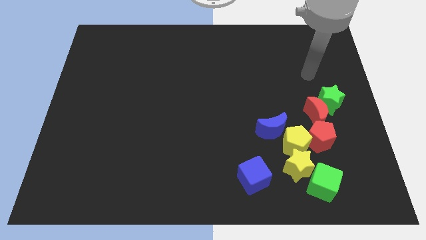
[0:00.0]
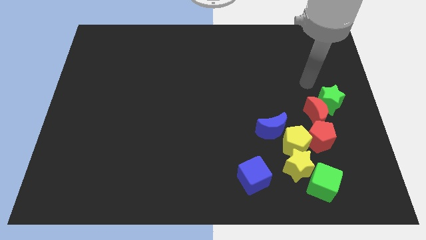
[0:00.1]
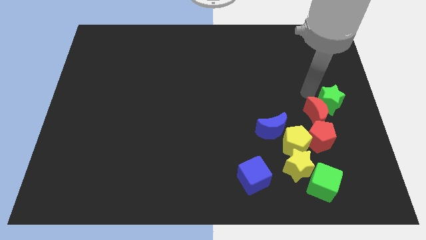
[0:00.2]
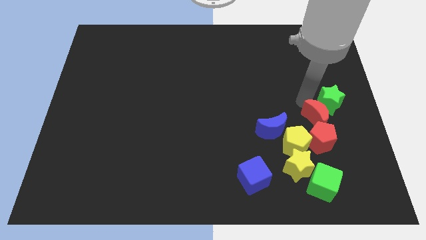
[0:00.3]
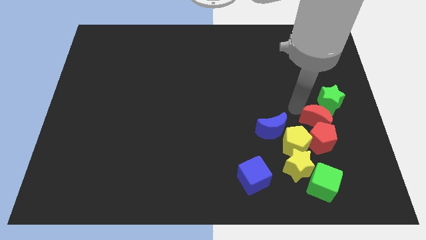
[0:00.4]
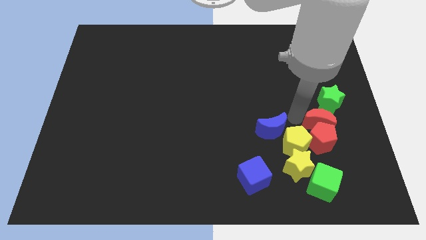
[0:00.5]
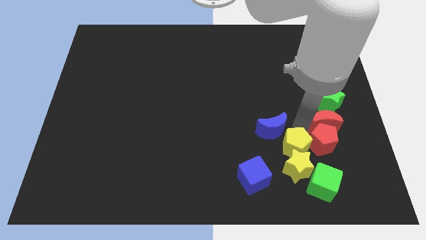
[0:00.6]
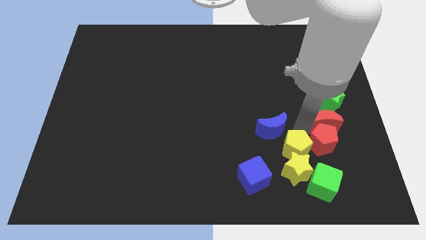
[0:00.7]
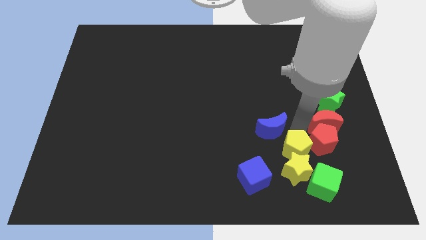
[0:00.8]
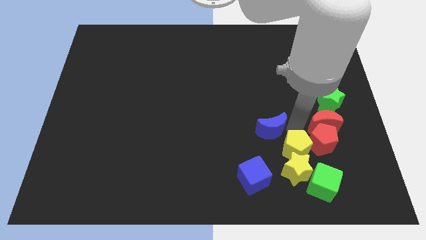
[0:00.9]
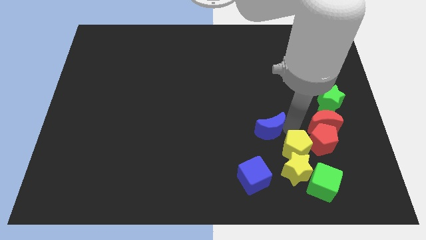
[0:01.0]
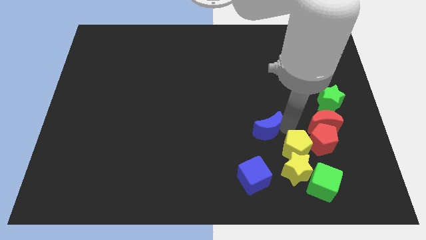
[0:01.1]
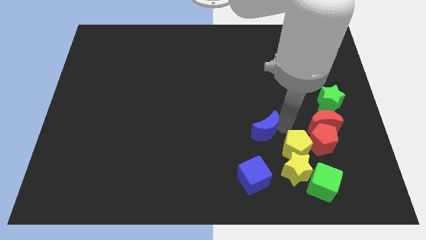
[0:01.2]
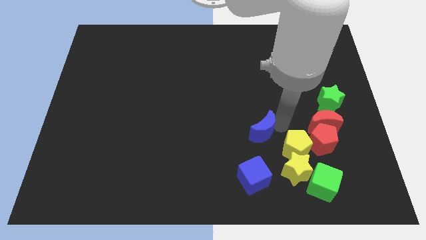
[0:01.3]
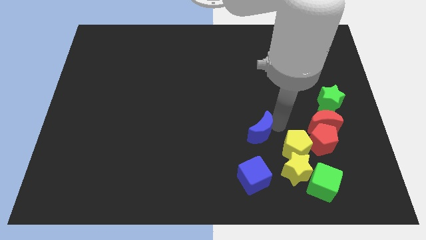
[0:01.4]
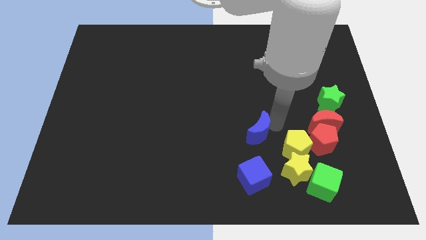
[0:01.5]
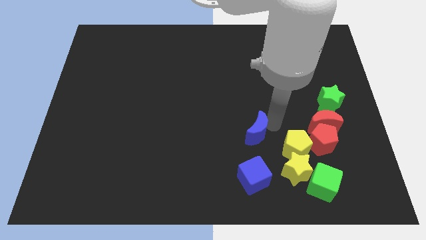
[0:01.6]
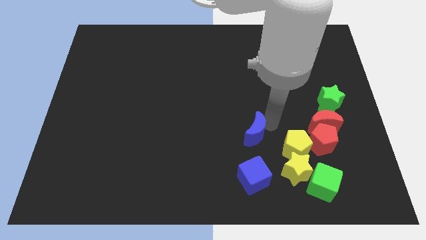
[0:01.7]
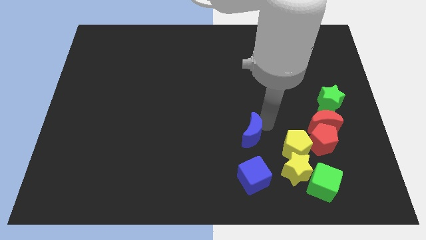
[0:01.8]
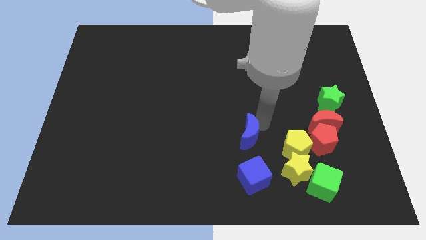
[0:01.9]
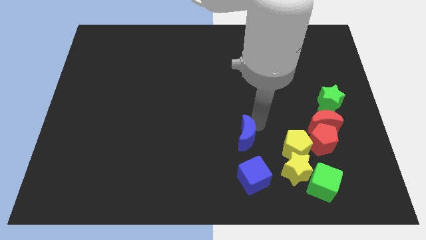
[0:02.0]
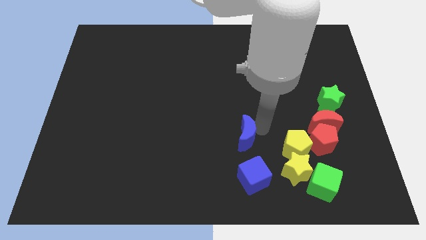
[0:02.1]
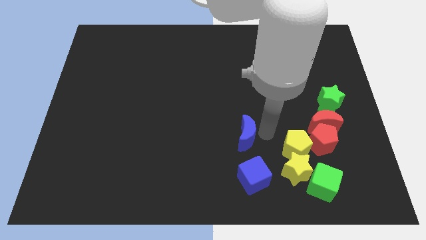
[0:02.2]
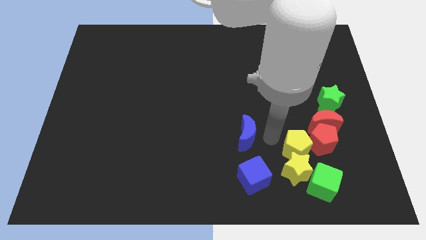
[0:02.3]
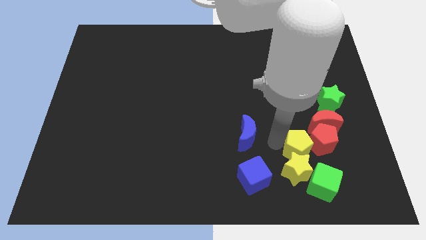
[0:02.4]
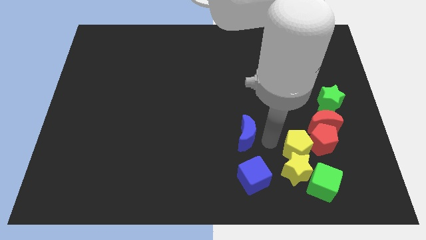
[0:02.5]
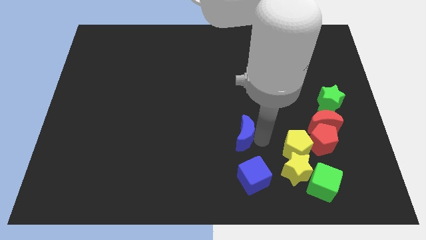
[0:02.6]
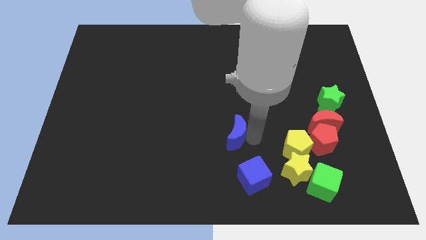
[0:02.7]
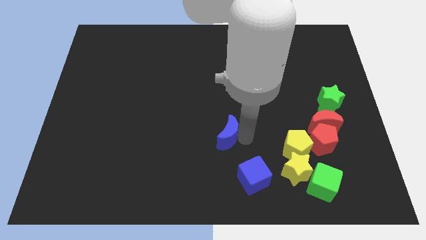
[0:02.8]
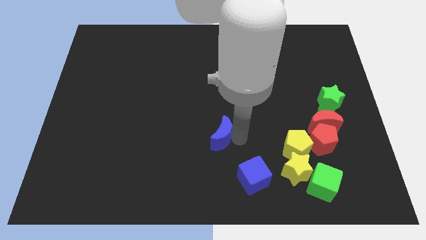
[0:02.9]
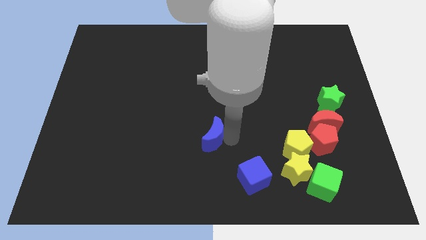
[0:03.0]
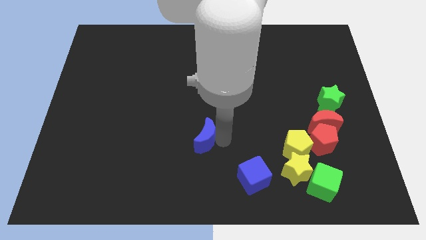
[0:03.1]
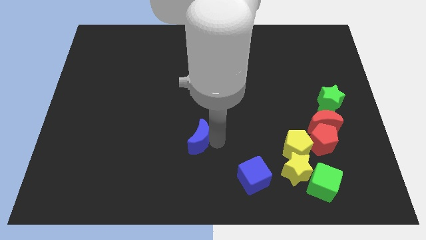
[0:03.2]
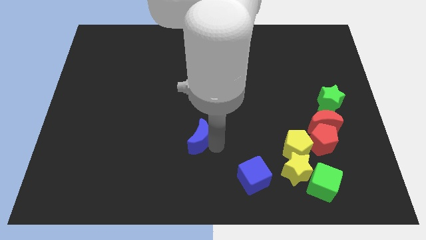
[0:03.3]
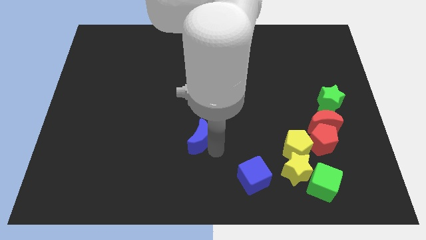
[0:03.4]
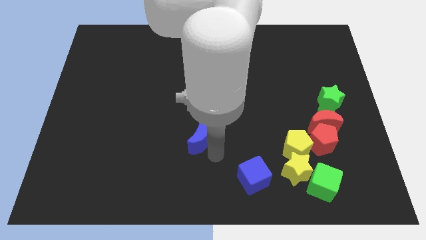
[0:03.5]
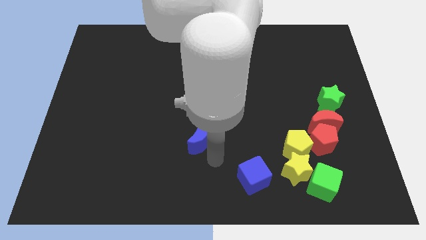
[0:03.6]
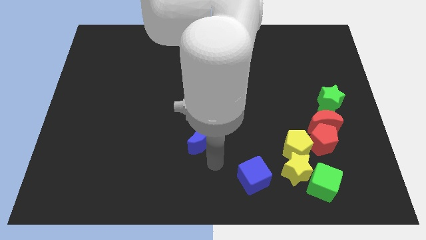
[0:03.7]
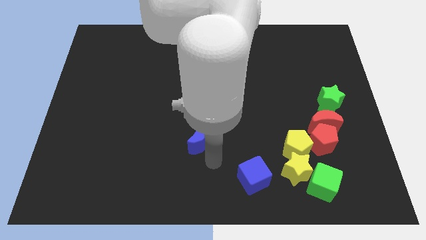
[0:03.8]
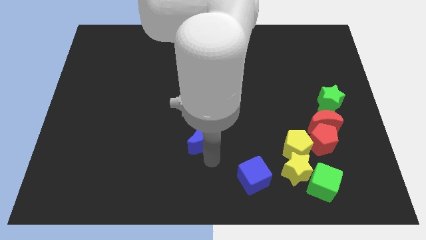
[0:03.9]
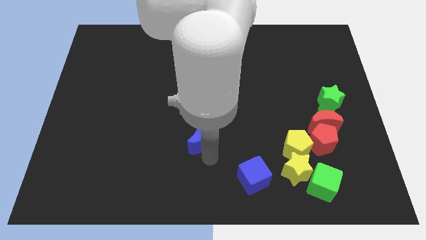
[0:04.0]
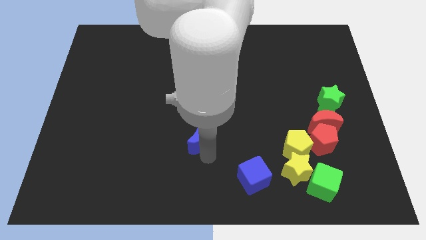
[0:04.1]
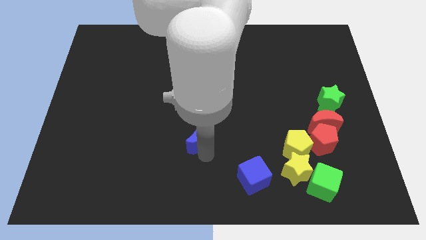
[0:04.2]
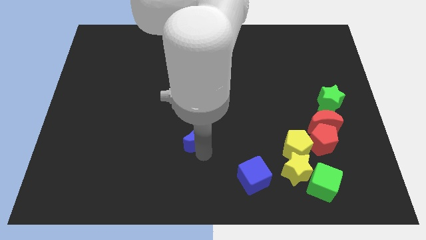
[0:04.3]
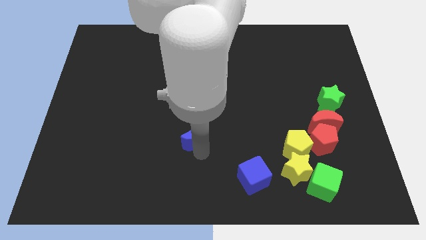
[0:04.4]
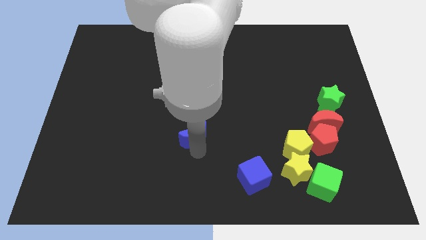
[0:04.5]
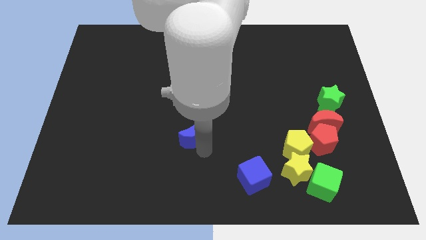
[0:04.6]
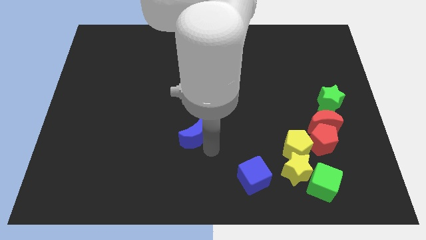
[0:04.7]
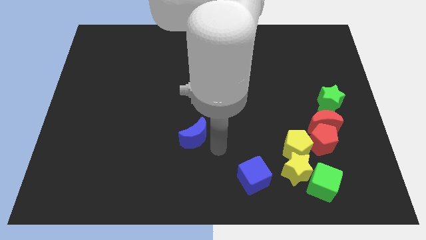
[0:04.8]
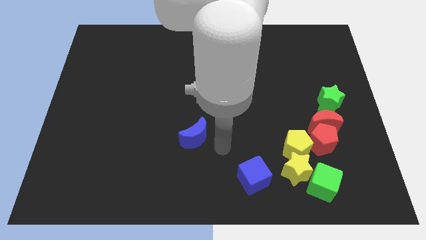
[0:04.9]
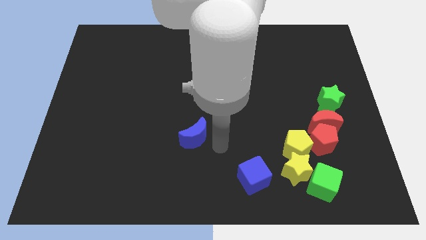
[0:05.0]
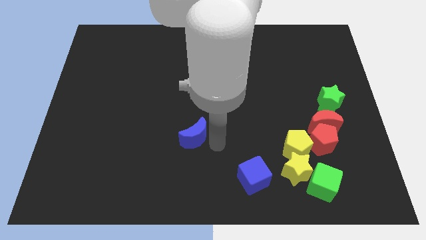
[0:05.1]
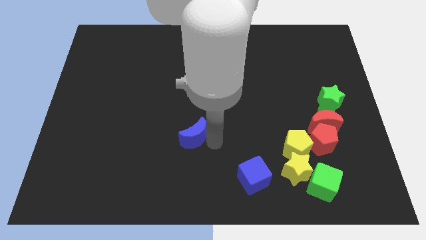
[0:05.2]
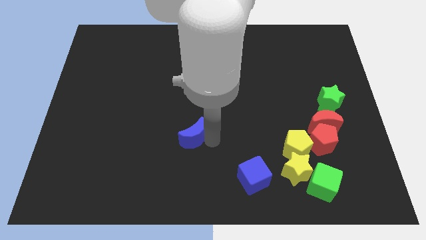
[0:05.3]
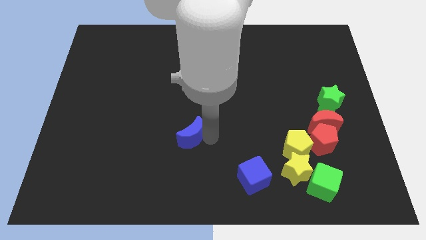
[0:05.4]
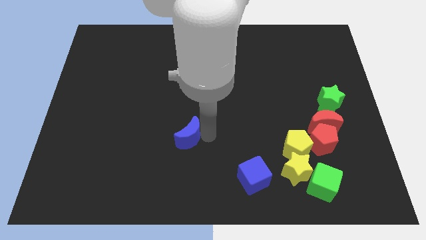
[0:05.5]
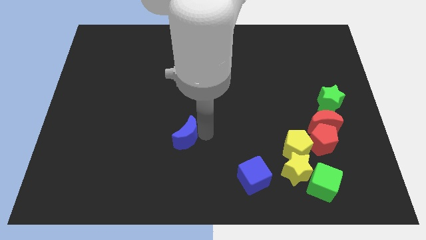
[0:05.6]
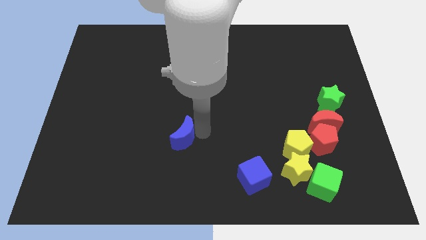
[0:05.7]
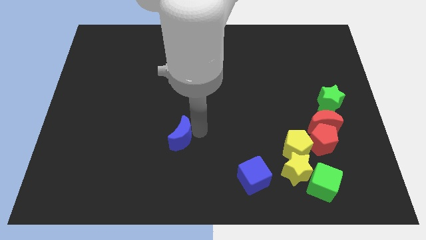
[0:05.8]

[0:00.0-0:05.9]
push the blue moon to the left

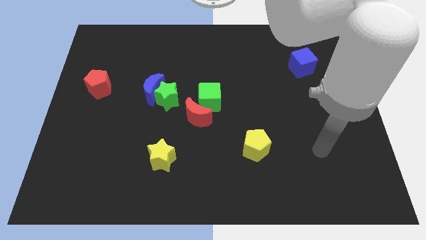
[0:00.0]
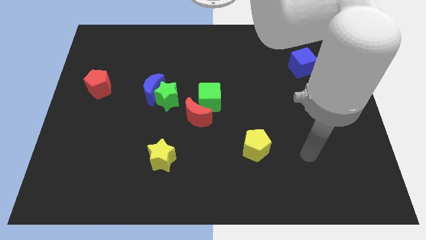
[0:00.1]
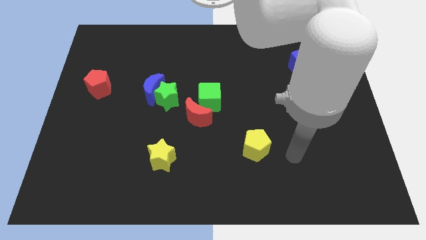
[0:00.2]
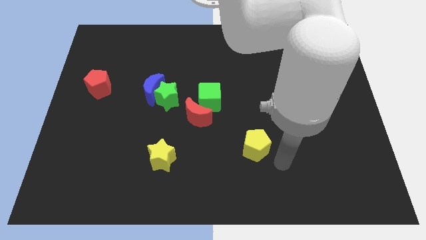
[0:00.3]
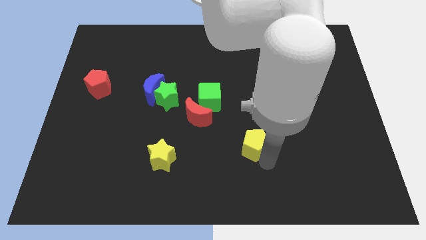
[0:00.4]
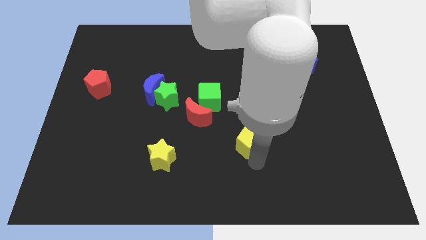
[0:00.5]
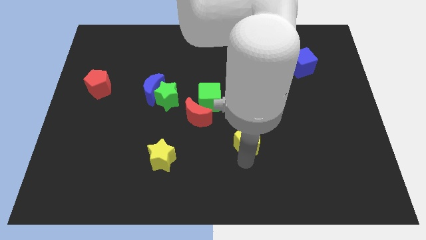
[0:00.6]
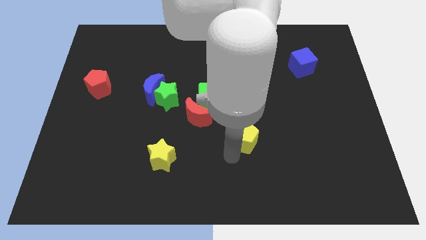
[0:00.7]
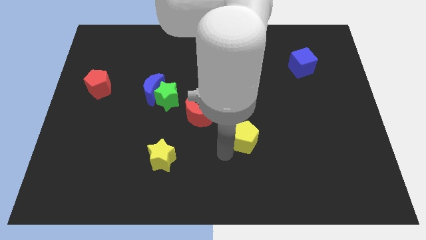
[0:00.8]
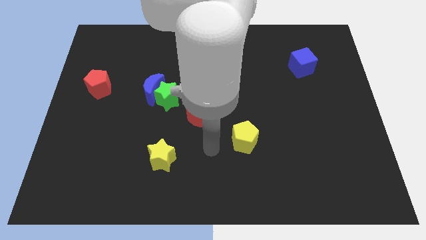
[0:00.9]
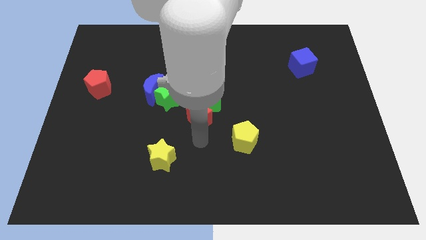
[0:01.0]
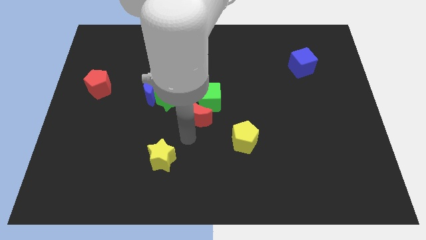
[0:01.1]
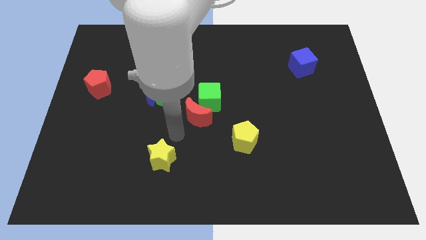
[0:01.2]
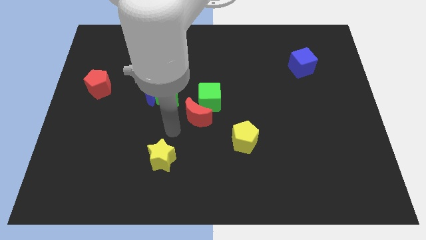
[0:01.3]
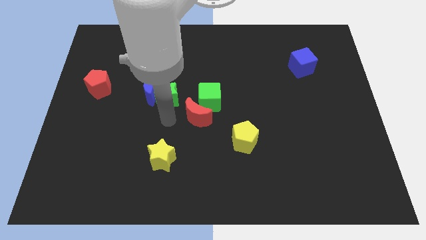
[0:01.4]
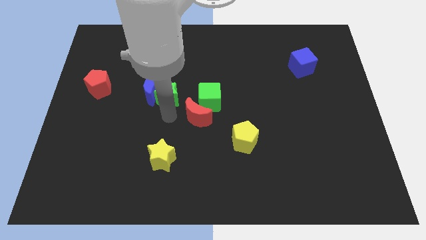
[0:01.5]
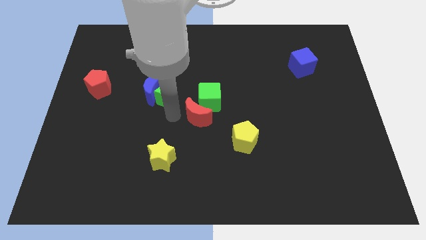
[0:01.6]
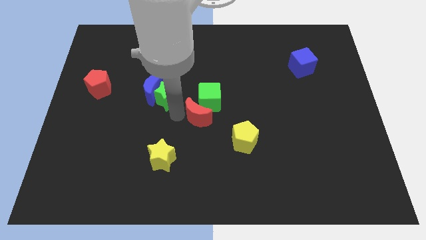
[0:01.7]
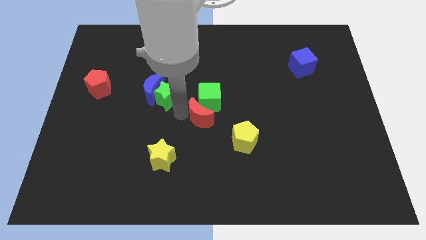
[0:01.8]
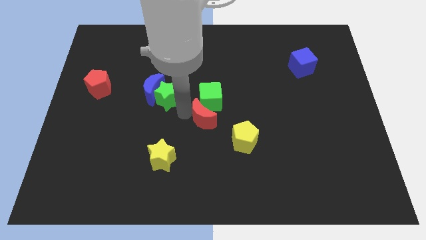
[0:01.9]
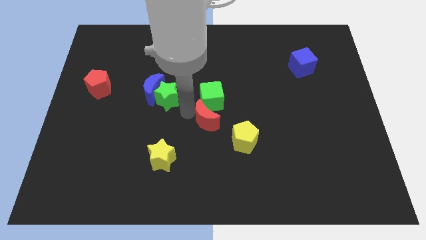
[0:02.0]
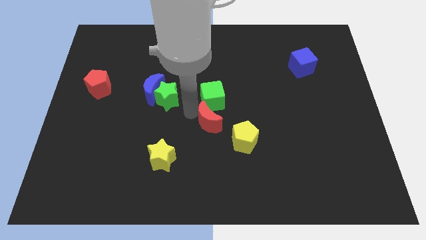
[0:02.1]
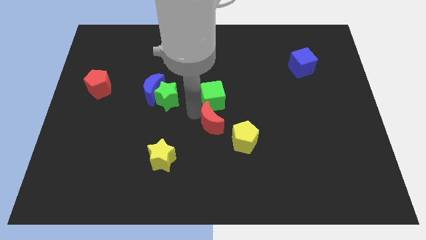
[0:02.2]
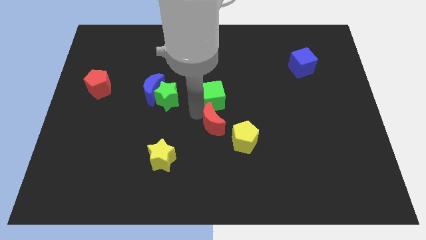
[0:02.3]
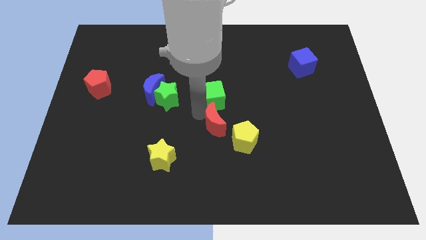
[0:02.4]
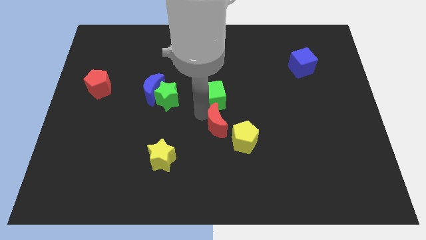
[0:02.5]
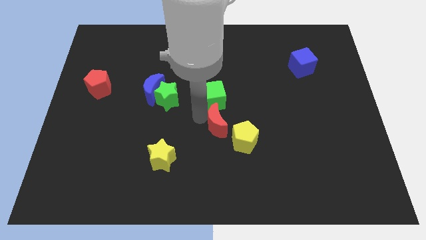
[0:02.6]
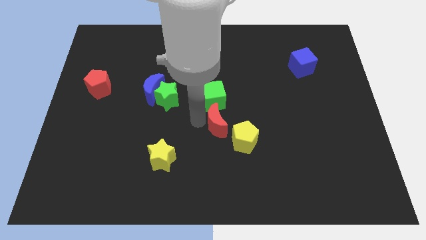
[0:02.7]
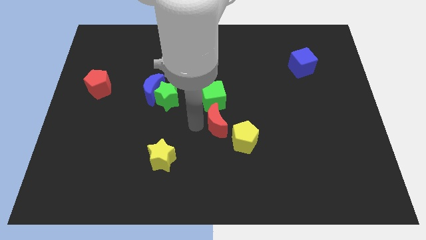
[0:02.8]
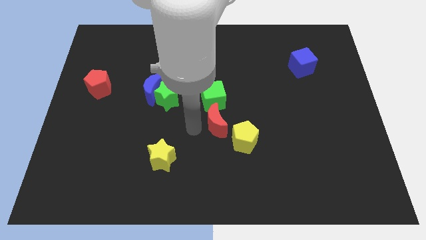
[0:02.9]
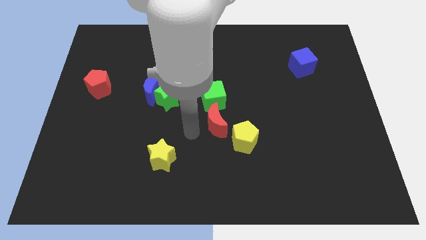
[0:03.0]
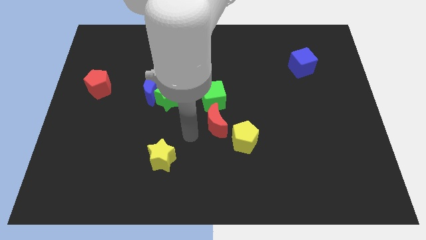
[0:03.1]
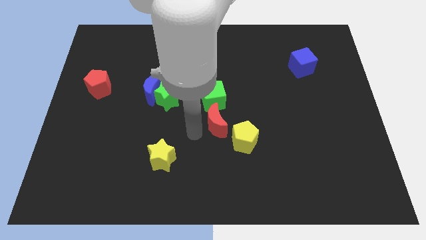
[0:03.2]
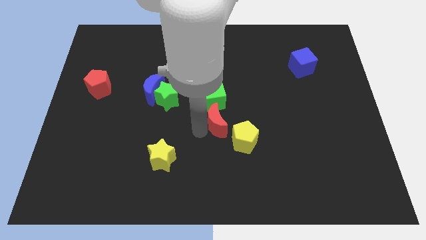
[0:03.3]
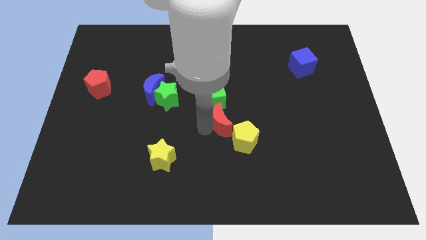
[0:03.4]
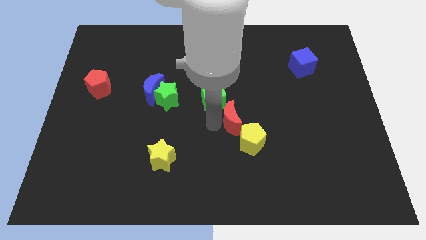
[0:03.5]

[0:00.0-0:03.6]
push the red moon a bit to the right
